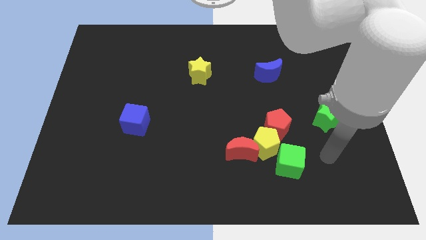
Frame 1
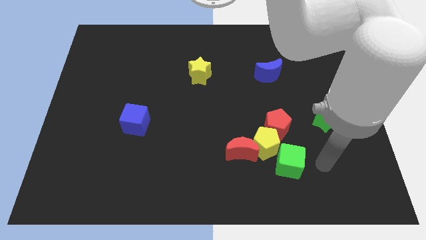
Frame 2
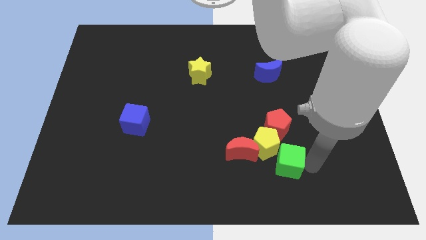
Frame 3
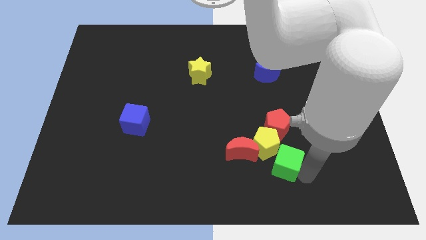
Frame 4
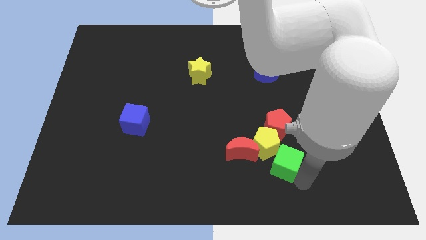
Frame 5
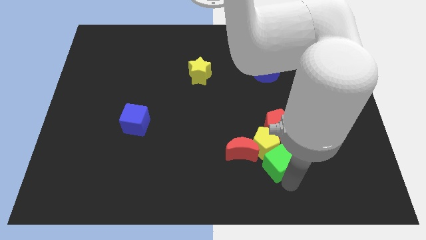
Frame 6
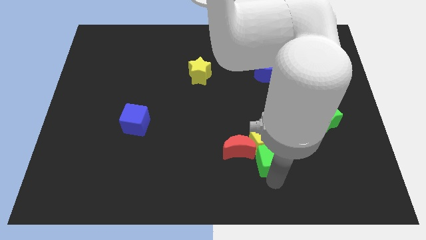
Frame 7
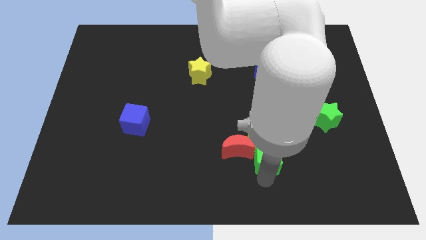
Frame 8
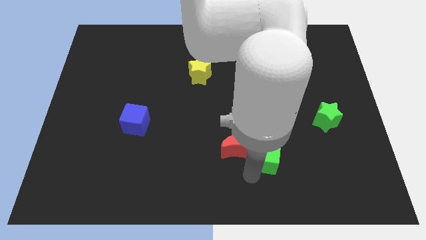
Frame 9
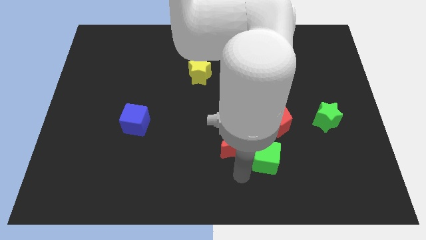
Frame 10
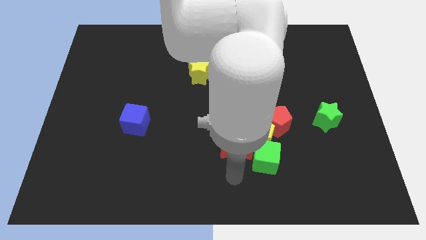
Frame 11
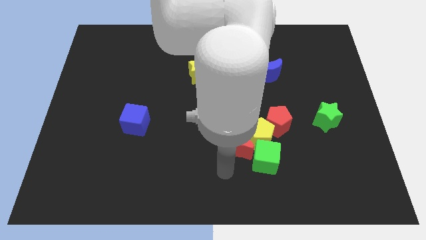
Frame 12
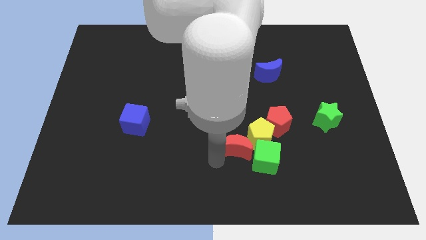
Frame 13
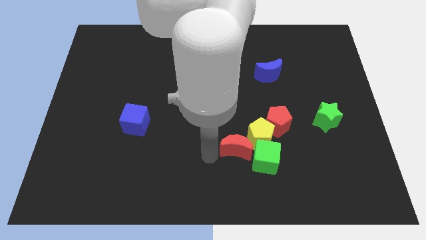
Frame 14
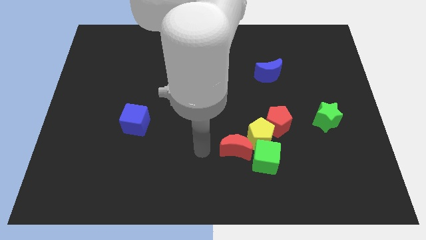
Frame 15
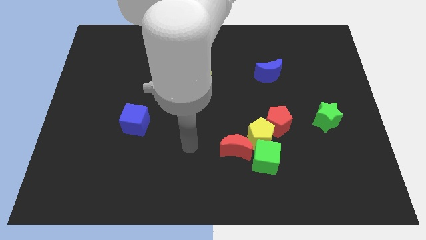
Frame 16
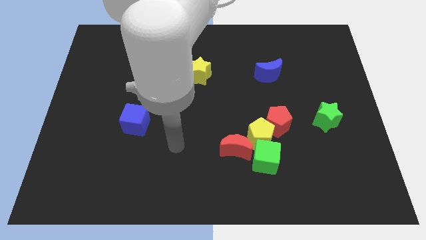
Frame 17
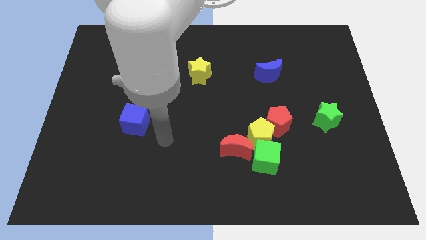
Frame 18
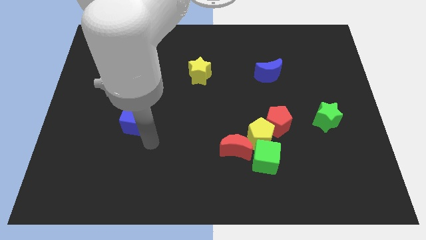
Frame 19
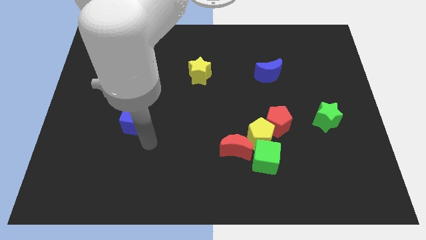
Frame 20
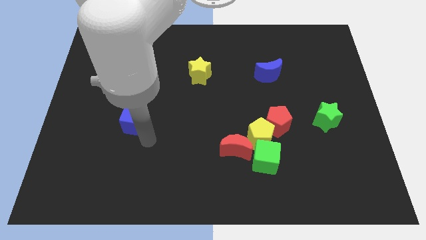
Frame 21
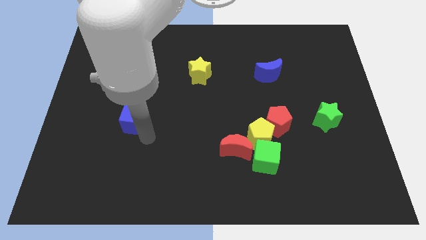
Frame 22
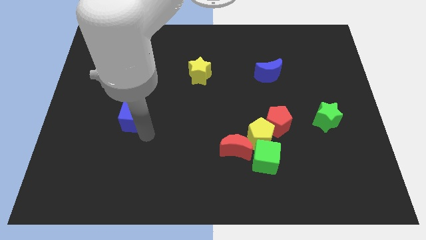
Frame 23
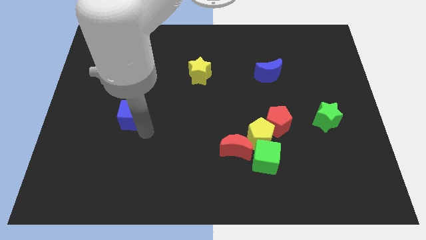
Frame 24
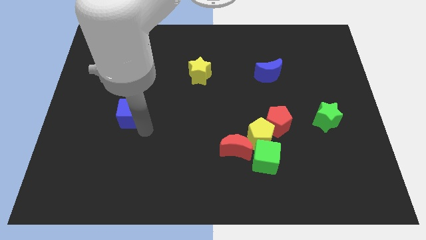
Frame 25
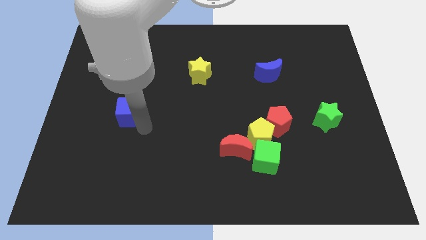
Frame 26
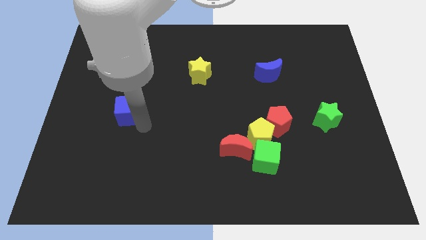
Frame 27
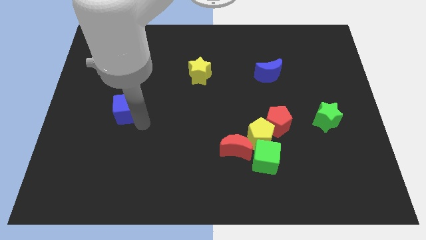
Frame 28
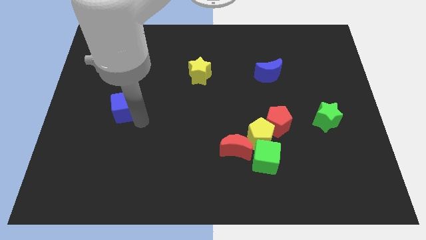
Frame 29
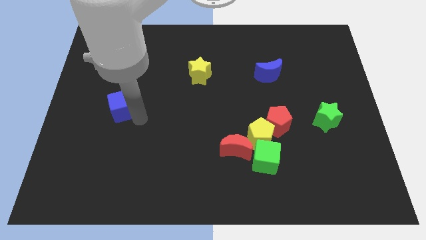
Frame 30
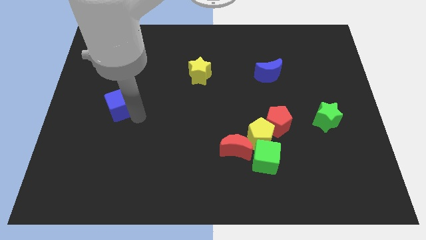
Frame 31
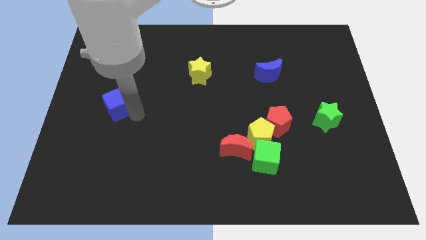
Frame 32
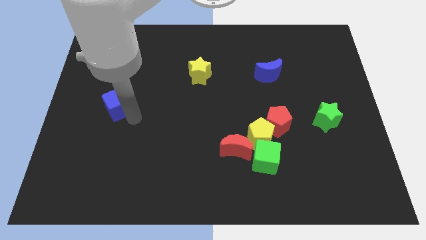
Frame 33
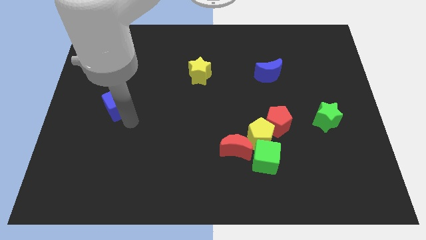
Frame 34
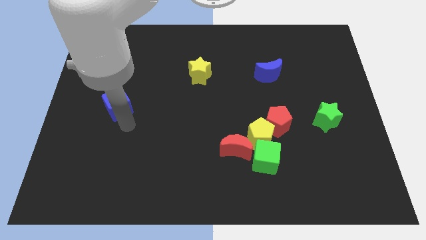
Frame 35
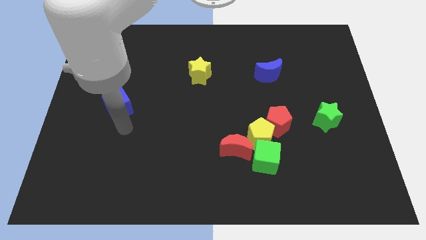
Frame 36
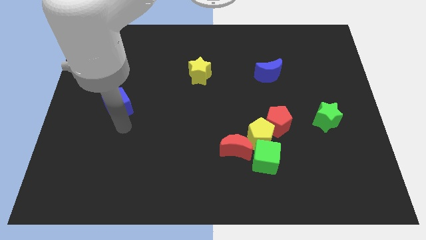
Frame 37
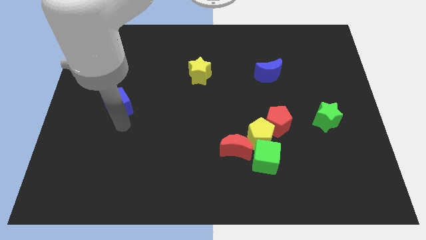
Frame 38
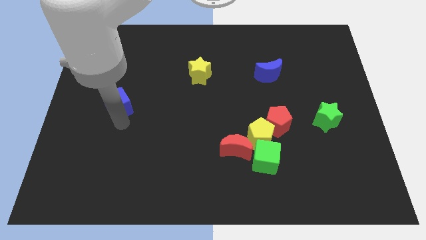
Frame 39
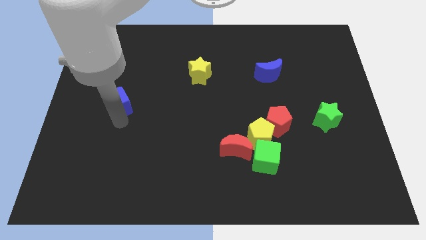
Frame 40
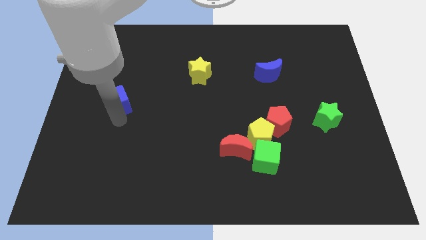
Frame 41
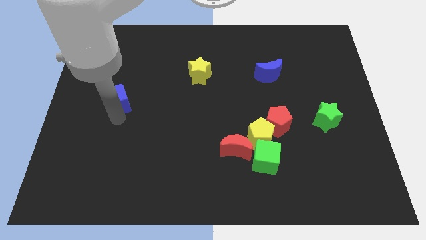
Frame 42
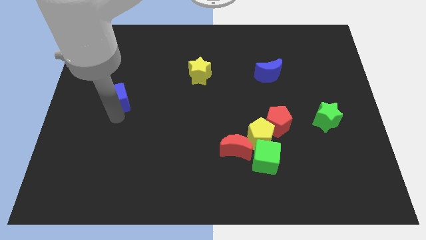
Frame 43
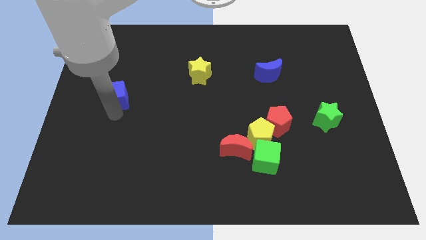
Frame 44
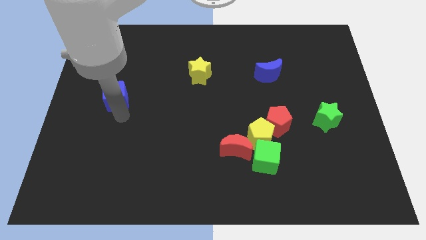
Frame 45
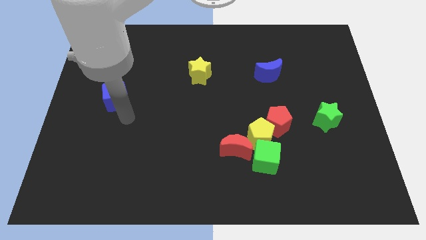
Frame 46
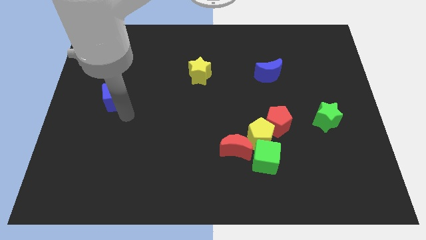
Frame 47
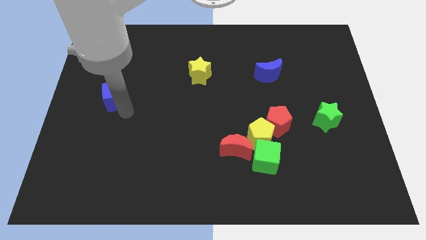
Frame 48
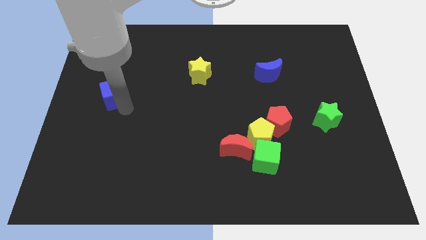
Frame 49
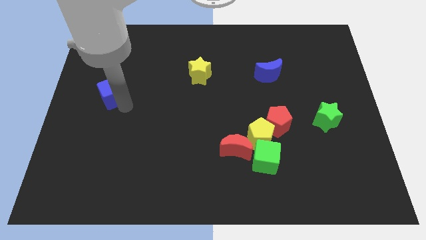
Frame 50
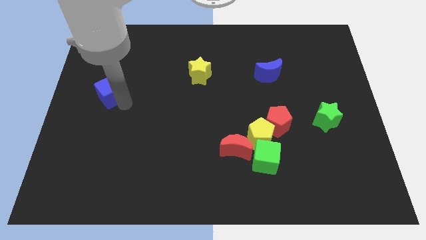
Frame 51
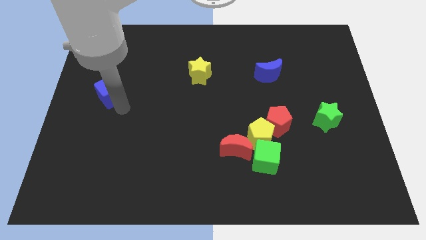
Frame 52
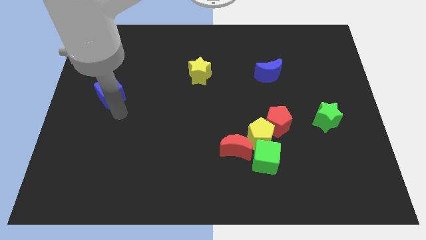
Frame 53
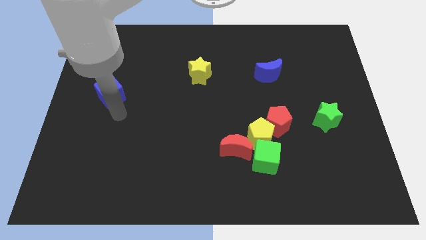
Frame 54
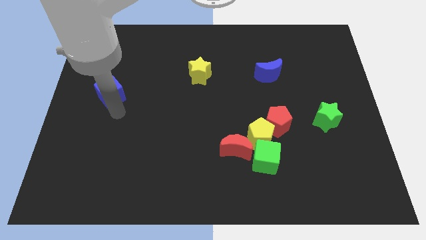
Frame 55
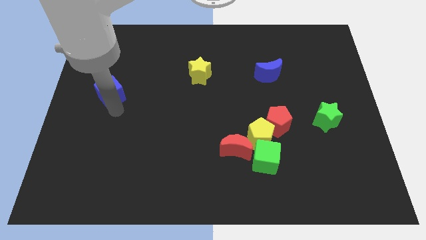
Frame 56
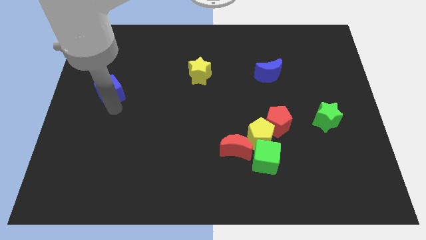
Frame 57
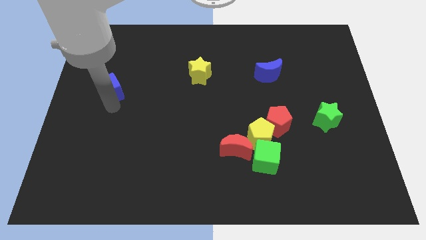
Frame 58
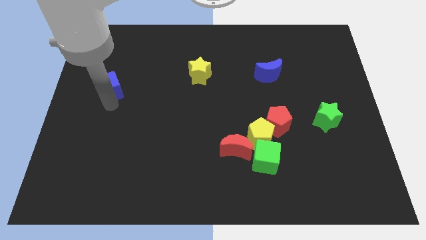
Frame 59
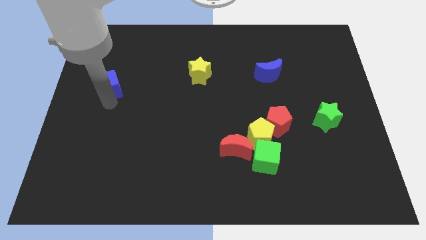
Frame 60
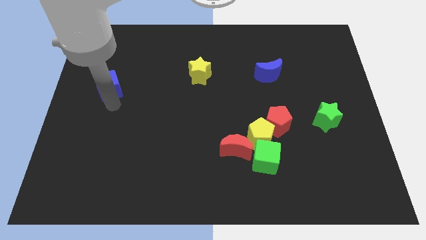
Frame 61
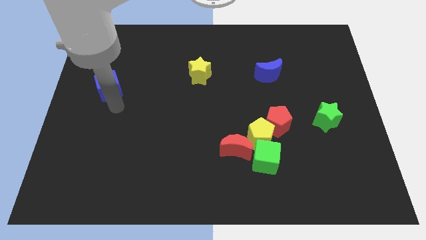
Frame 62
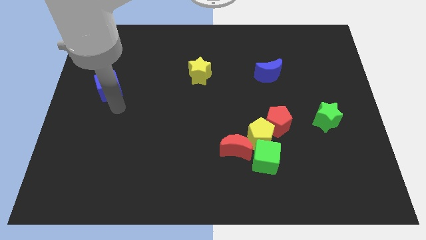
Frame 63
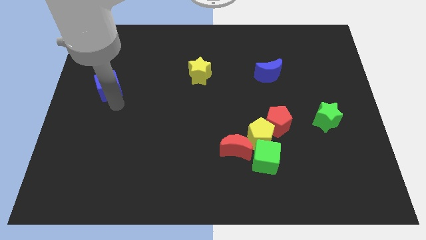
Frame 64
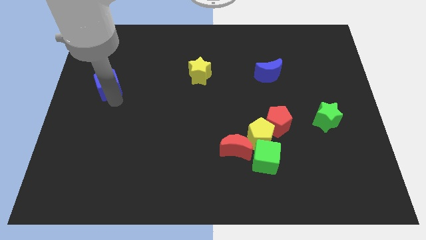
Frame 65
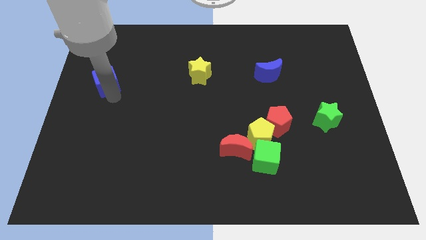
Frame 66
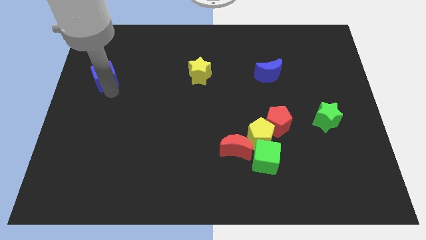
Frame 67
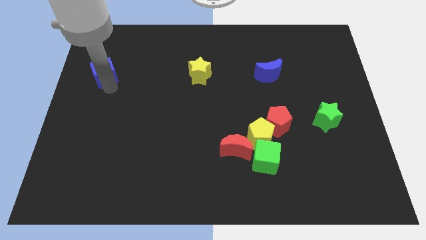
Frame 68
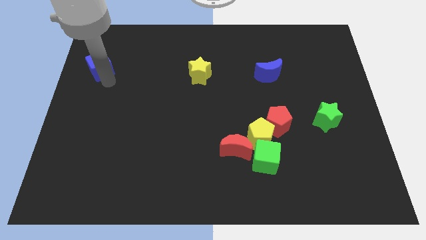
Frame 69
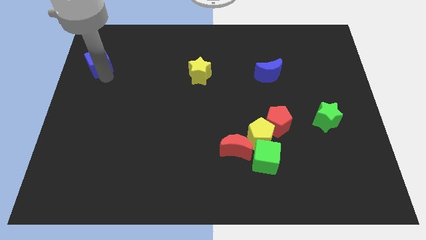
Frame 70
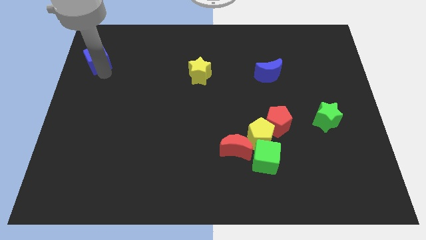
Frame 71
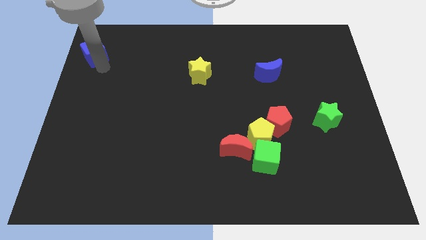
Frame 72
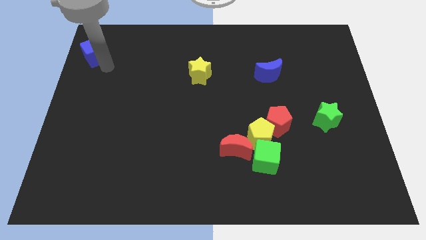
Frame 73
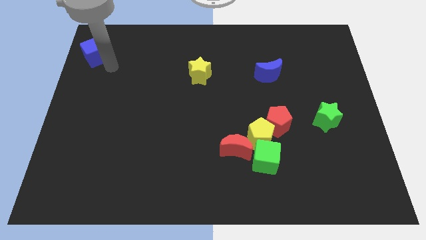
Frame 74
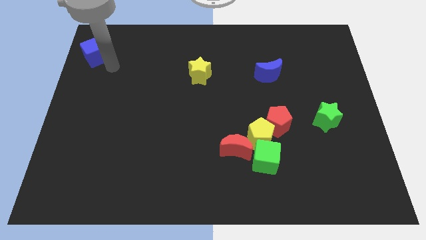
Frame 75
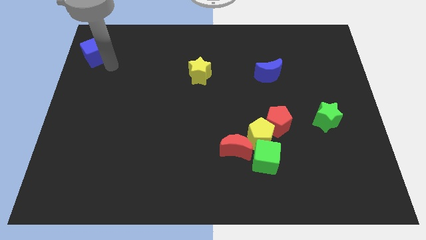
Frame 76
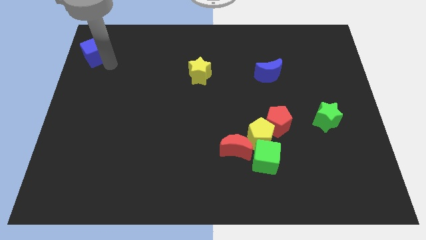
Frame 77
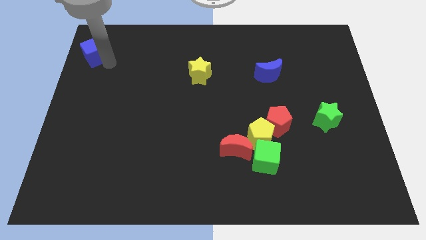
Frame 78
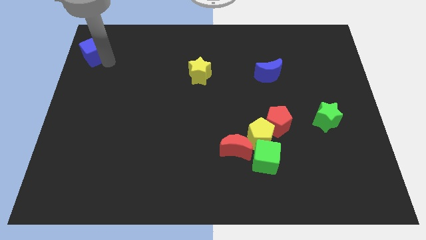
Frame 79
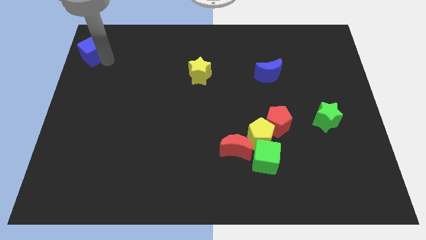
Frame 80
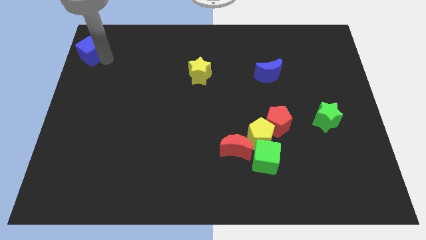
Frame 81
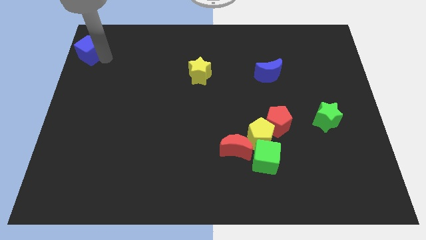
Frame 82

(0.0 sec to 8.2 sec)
put the blue cube to the top left corner
